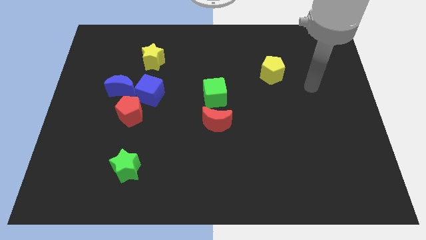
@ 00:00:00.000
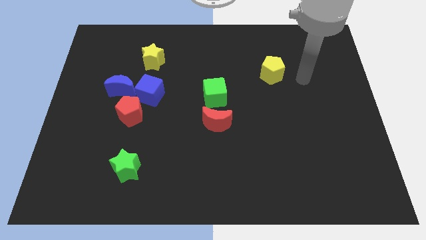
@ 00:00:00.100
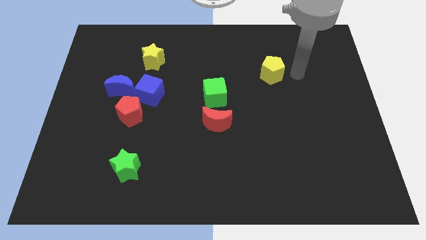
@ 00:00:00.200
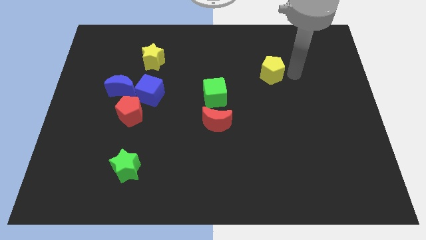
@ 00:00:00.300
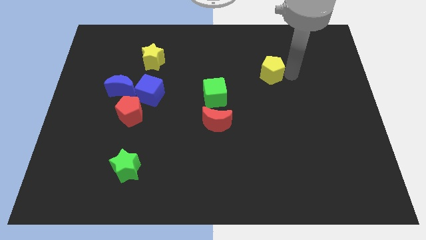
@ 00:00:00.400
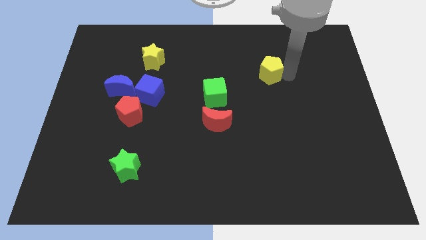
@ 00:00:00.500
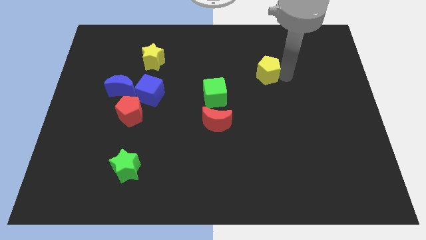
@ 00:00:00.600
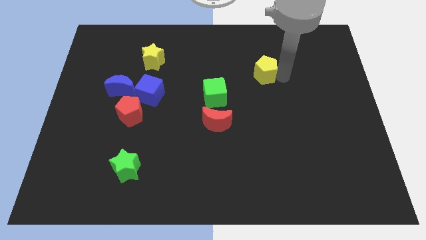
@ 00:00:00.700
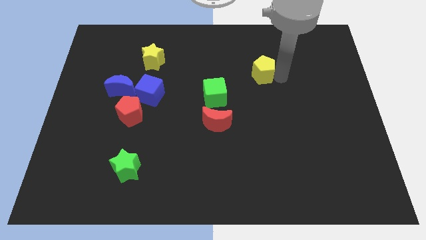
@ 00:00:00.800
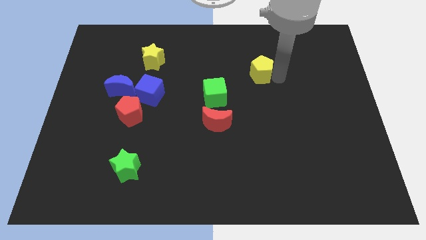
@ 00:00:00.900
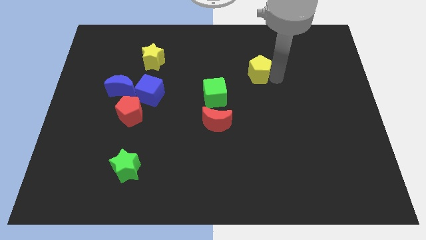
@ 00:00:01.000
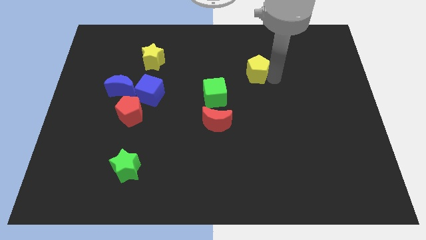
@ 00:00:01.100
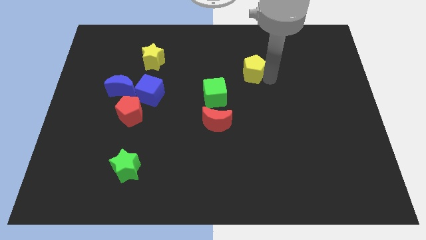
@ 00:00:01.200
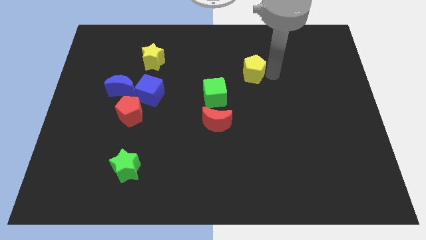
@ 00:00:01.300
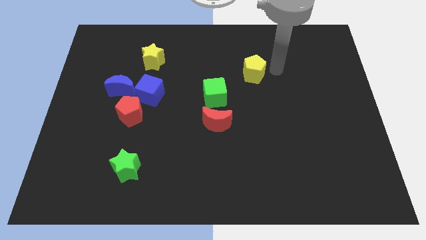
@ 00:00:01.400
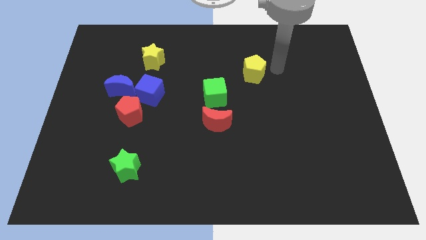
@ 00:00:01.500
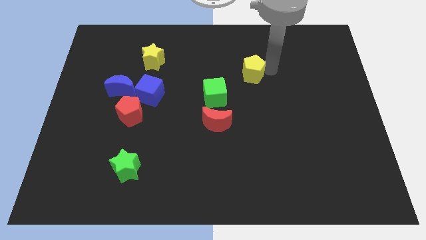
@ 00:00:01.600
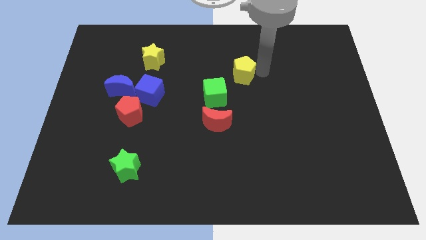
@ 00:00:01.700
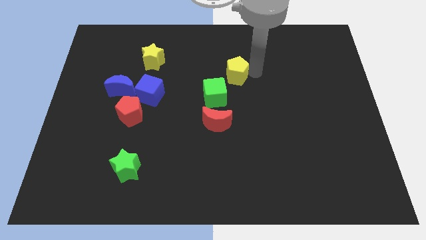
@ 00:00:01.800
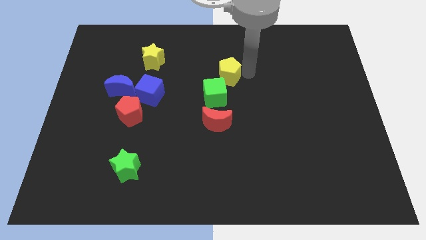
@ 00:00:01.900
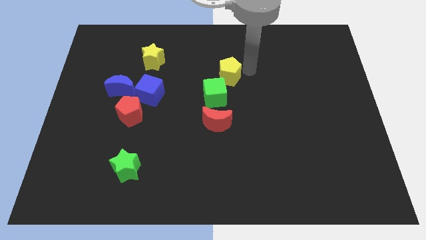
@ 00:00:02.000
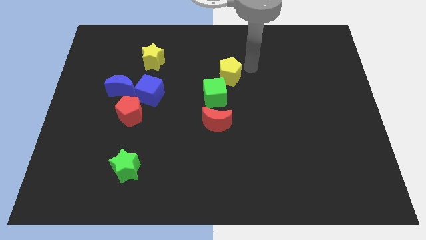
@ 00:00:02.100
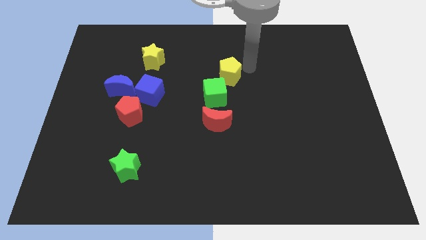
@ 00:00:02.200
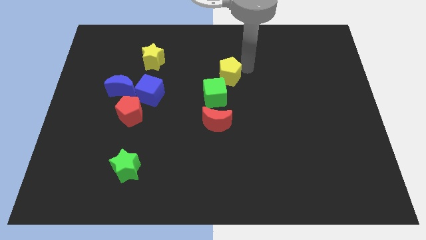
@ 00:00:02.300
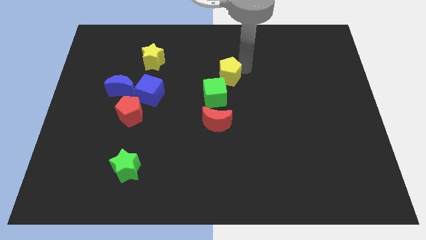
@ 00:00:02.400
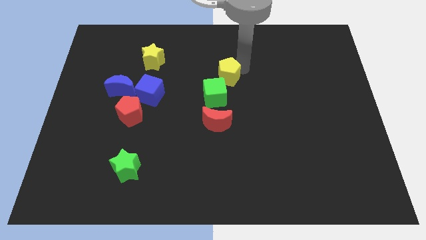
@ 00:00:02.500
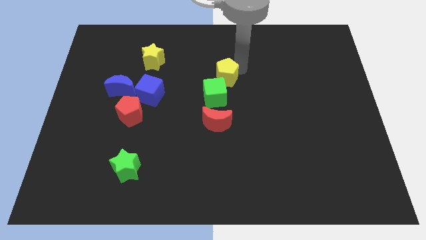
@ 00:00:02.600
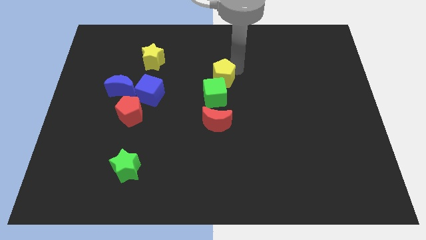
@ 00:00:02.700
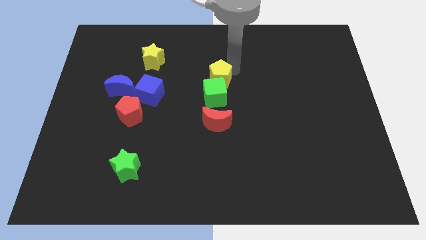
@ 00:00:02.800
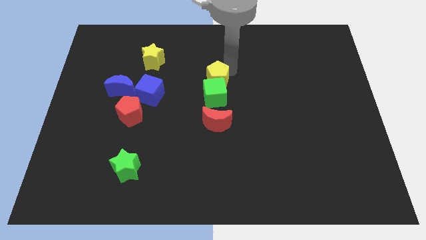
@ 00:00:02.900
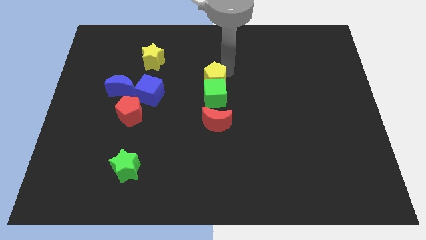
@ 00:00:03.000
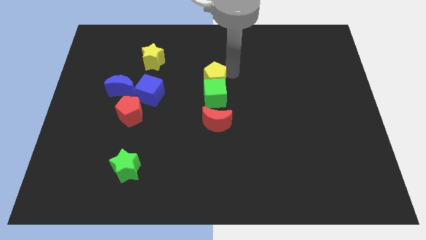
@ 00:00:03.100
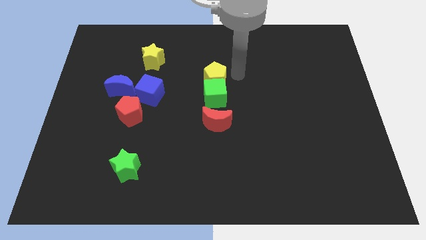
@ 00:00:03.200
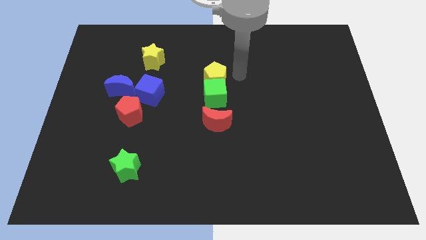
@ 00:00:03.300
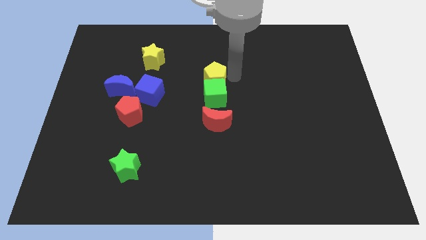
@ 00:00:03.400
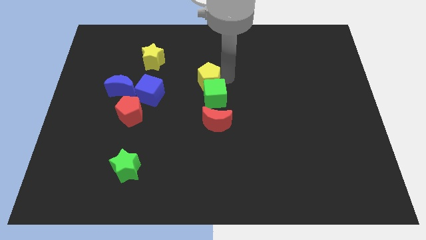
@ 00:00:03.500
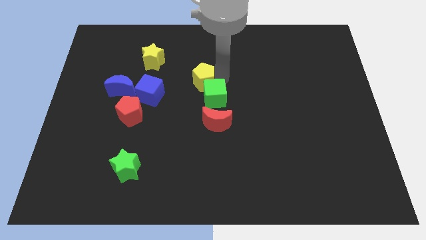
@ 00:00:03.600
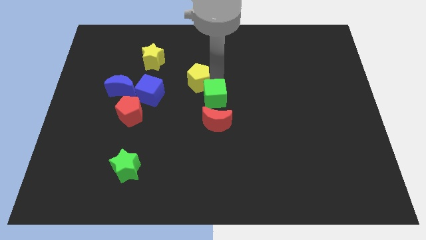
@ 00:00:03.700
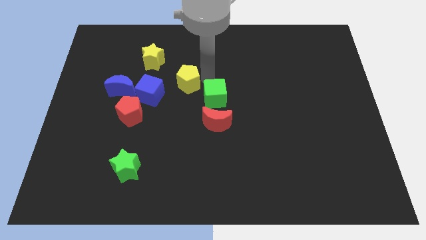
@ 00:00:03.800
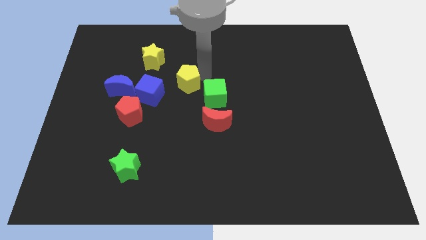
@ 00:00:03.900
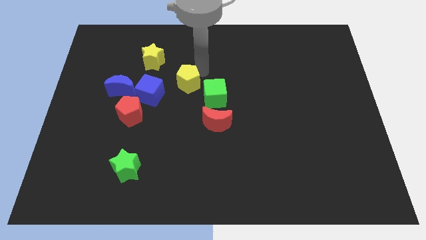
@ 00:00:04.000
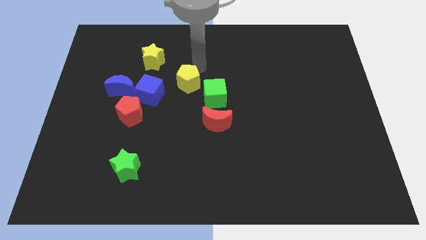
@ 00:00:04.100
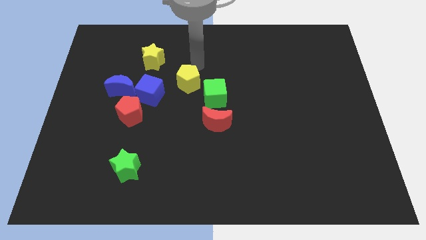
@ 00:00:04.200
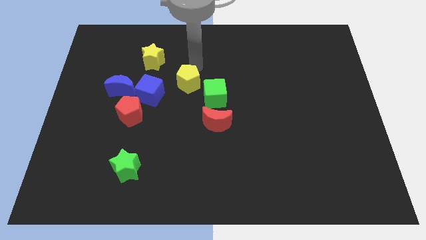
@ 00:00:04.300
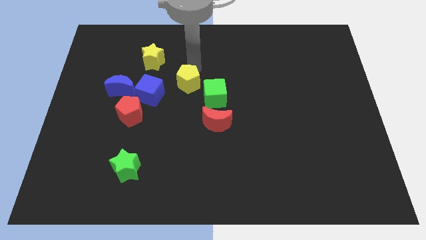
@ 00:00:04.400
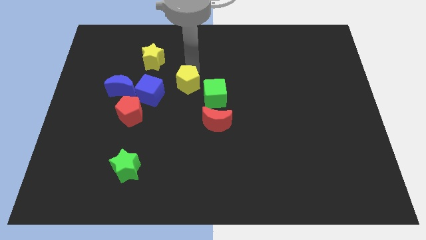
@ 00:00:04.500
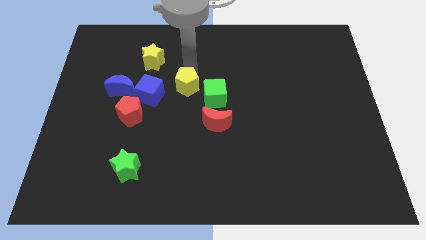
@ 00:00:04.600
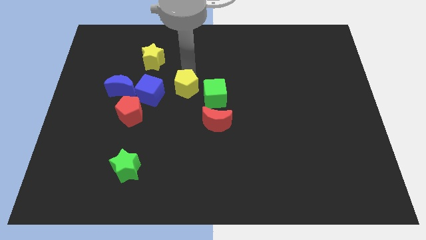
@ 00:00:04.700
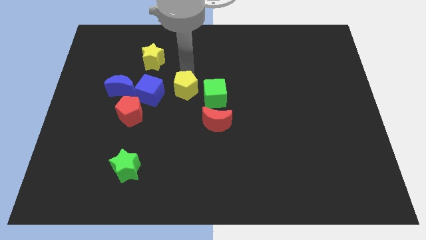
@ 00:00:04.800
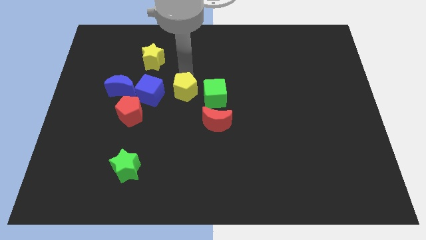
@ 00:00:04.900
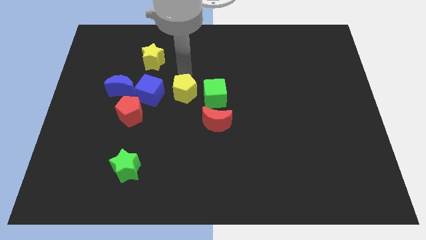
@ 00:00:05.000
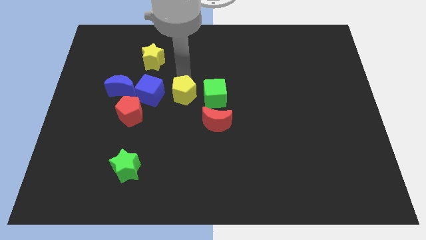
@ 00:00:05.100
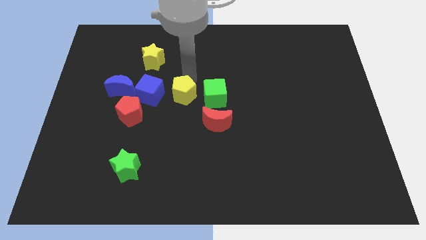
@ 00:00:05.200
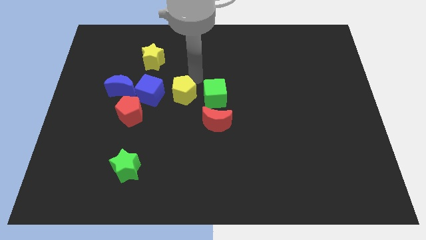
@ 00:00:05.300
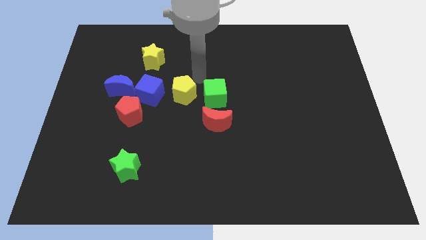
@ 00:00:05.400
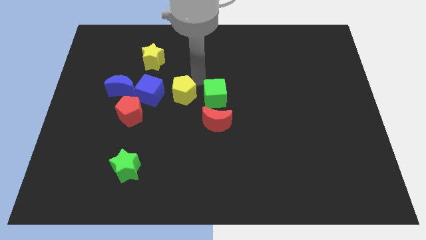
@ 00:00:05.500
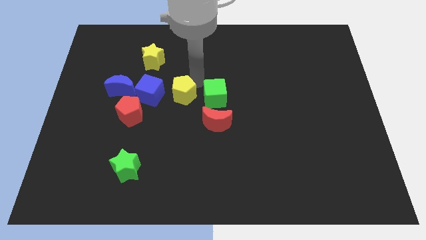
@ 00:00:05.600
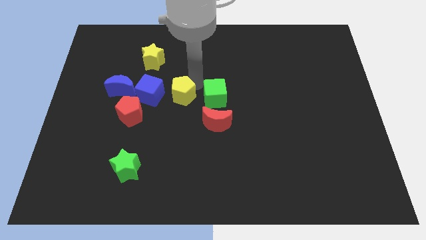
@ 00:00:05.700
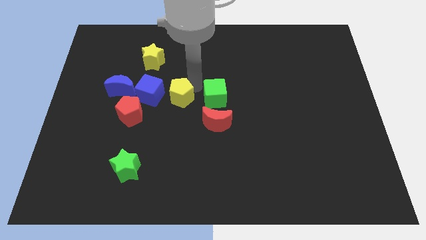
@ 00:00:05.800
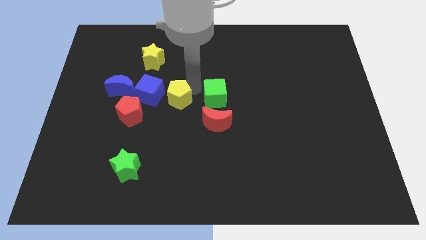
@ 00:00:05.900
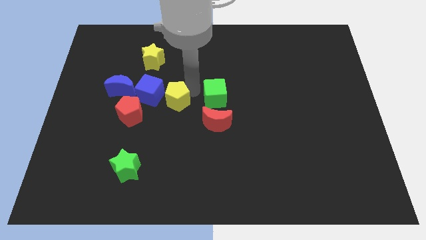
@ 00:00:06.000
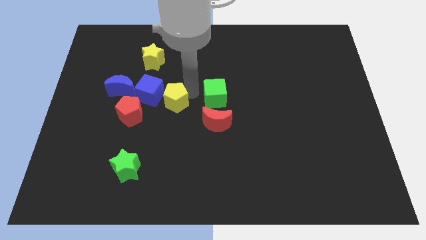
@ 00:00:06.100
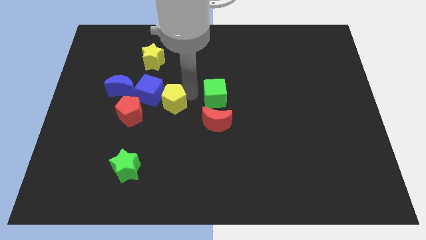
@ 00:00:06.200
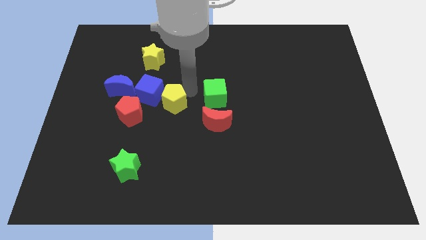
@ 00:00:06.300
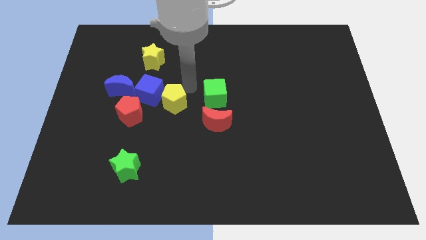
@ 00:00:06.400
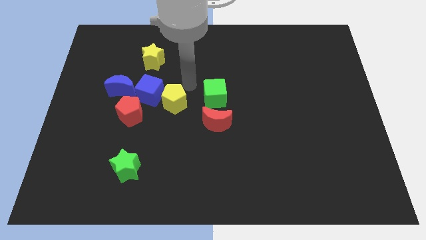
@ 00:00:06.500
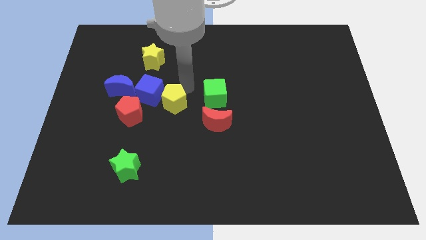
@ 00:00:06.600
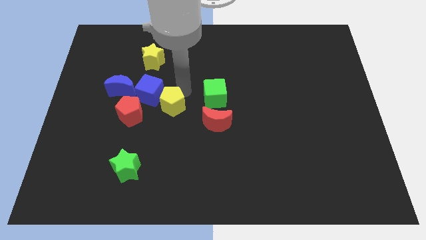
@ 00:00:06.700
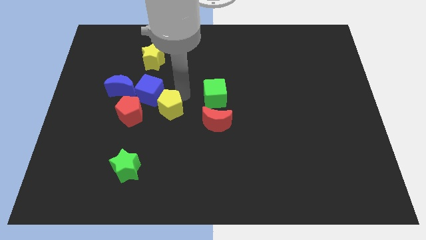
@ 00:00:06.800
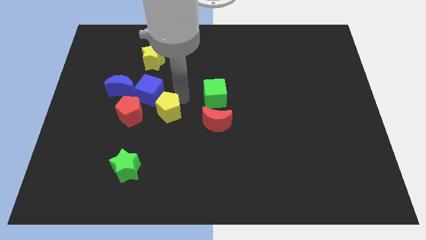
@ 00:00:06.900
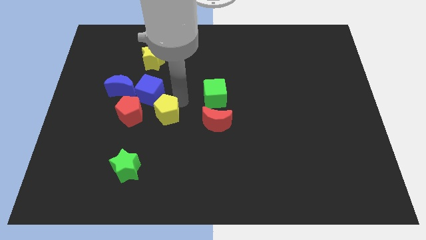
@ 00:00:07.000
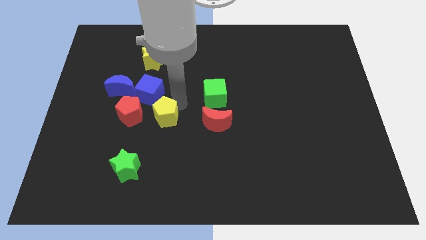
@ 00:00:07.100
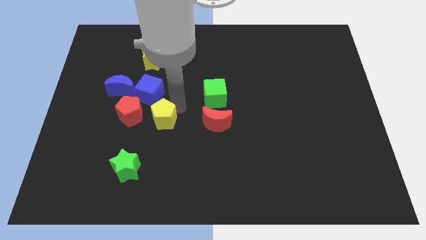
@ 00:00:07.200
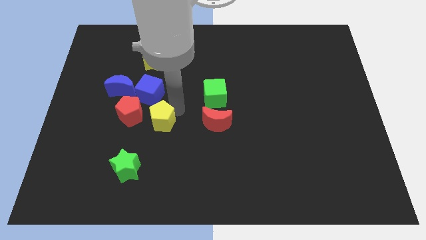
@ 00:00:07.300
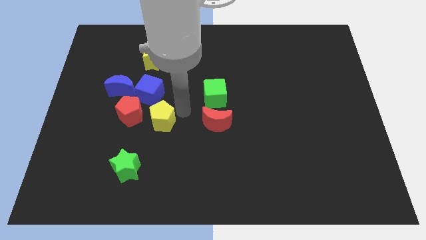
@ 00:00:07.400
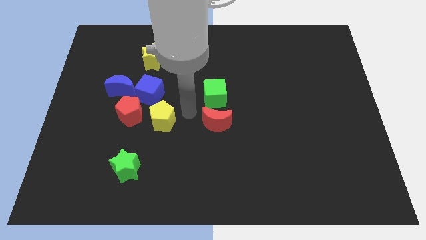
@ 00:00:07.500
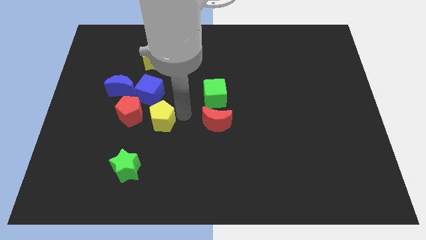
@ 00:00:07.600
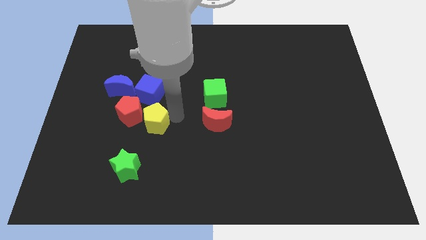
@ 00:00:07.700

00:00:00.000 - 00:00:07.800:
put the yellow pentagon to the top of the green star
